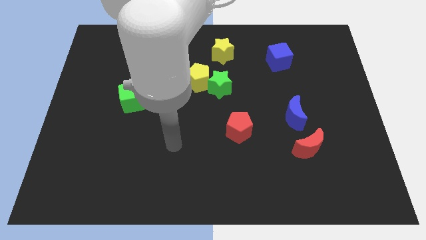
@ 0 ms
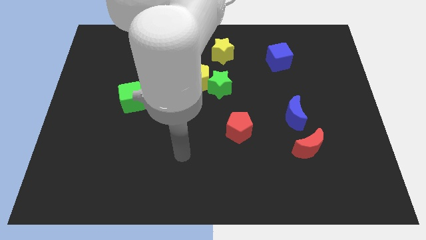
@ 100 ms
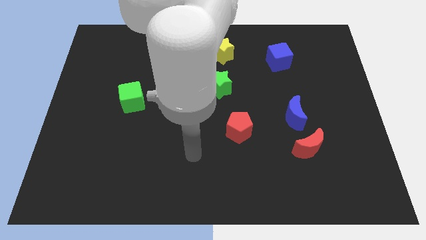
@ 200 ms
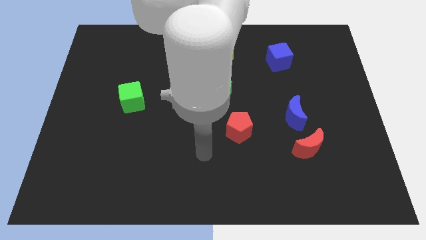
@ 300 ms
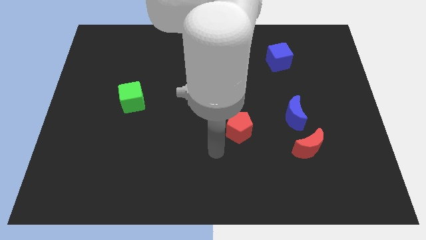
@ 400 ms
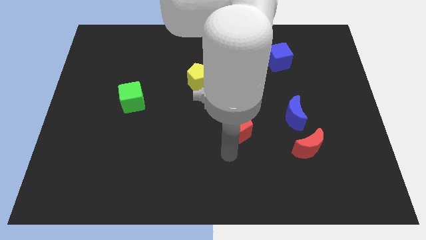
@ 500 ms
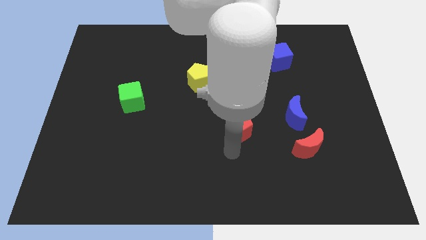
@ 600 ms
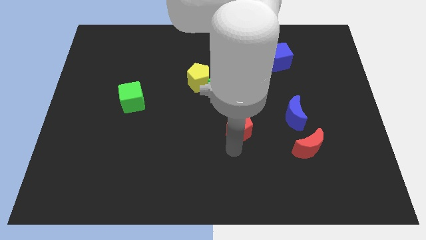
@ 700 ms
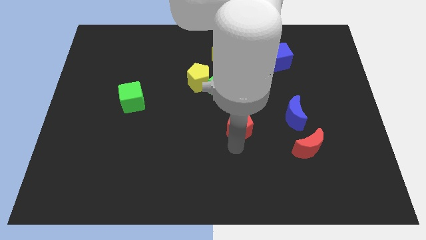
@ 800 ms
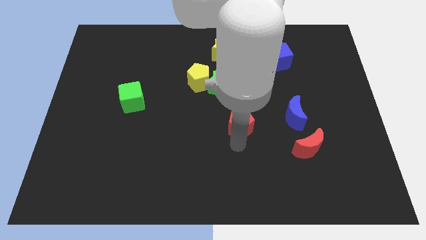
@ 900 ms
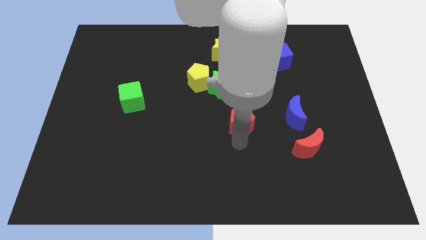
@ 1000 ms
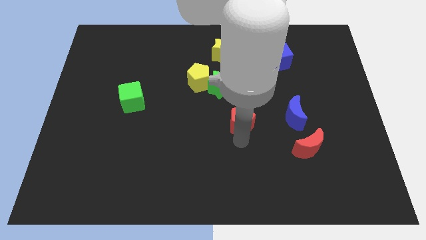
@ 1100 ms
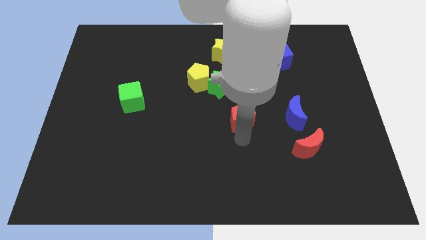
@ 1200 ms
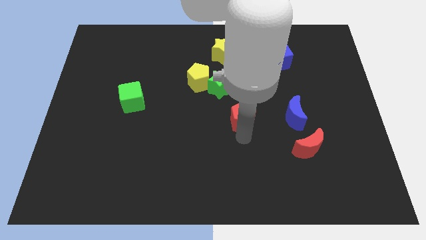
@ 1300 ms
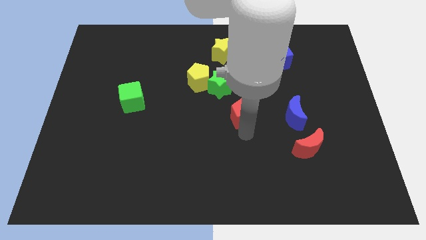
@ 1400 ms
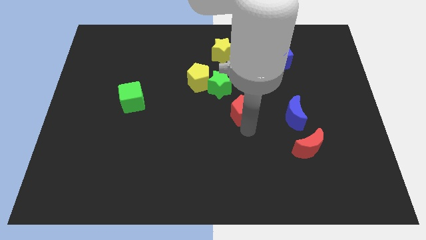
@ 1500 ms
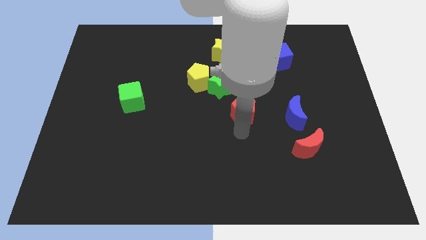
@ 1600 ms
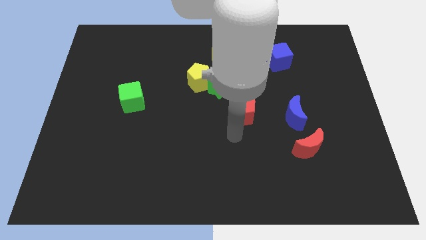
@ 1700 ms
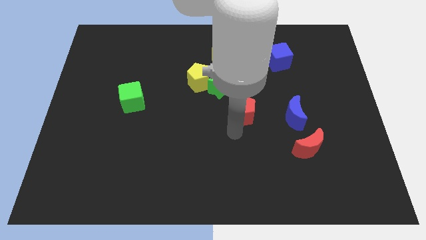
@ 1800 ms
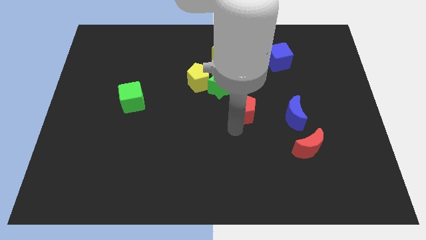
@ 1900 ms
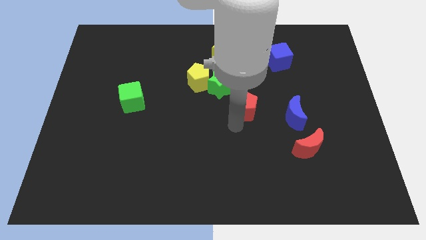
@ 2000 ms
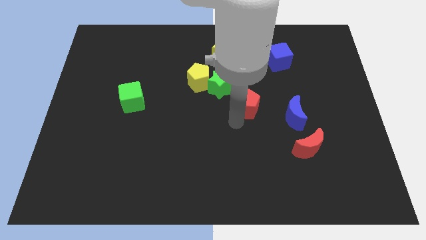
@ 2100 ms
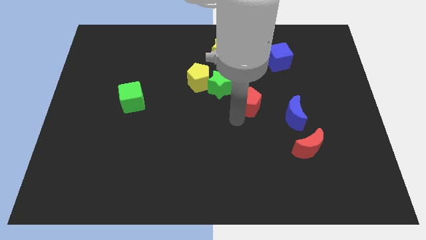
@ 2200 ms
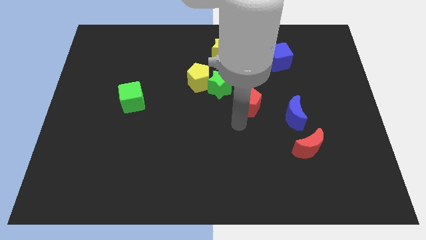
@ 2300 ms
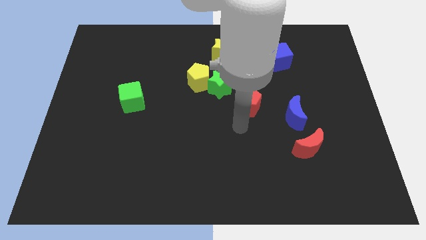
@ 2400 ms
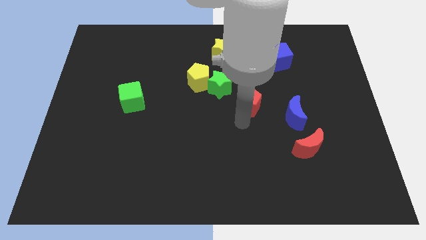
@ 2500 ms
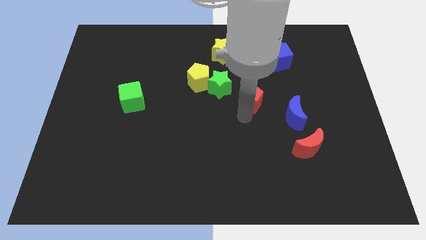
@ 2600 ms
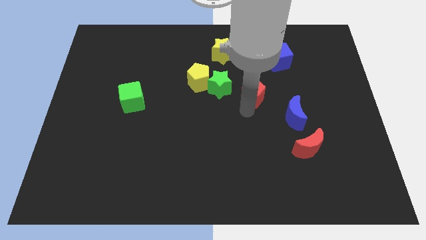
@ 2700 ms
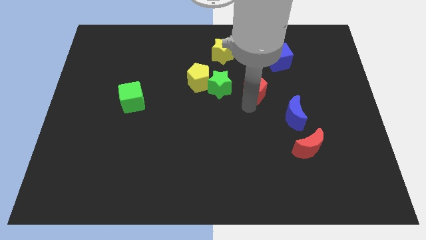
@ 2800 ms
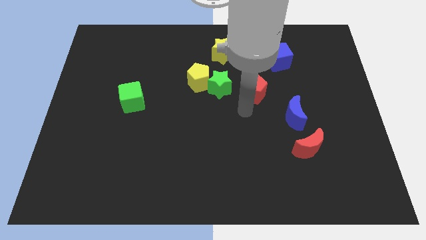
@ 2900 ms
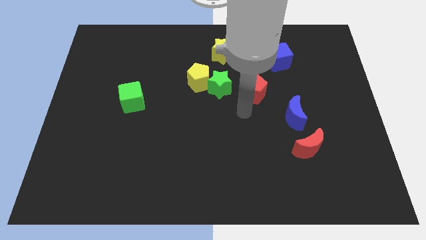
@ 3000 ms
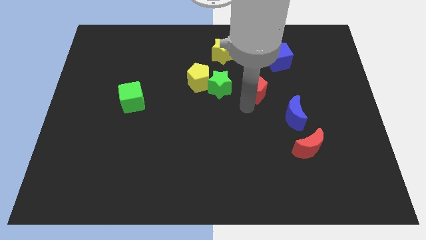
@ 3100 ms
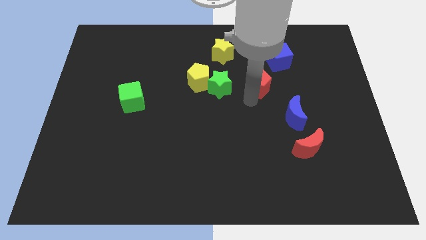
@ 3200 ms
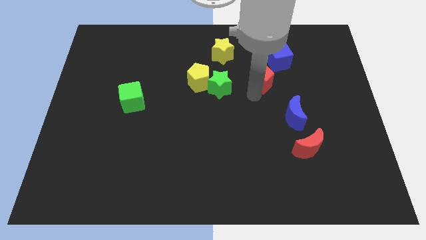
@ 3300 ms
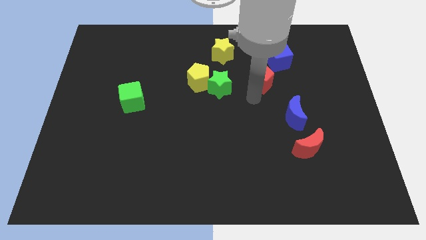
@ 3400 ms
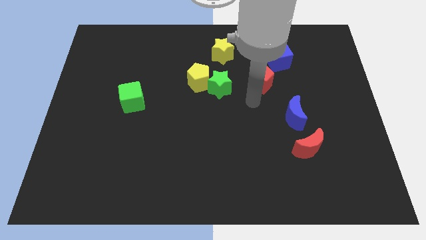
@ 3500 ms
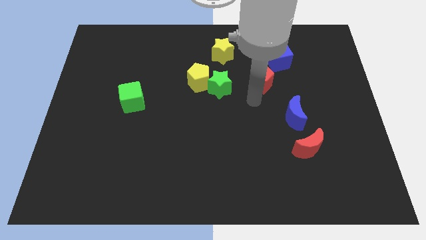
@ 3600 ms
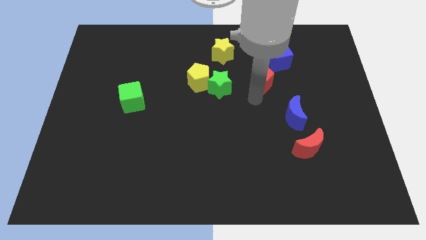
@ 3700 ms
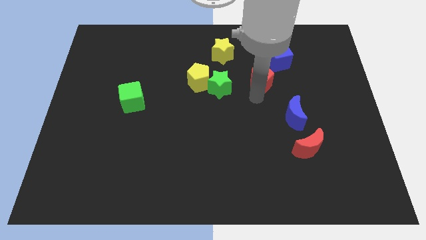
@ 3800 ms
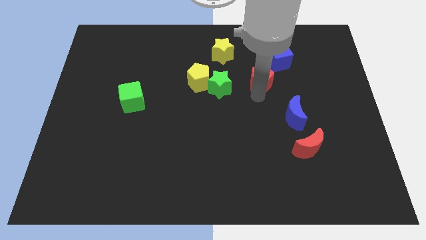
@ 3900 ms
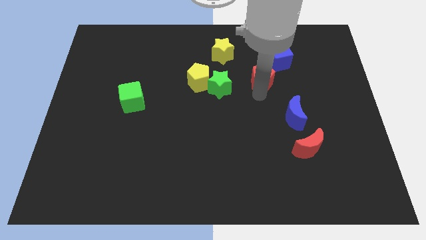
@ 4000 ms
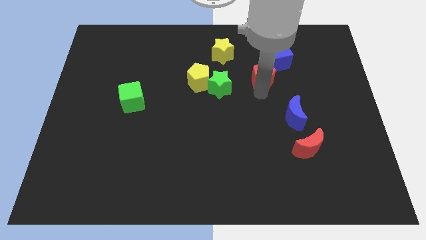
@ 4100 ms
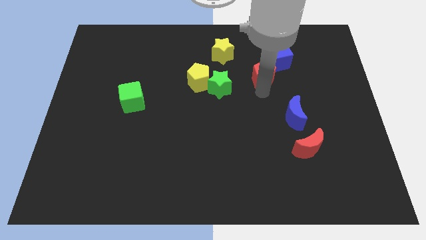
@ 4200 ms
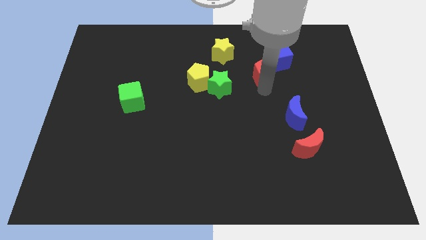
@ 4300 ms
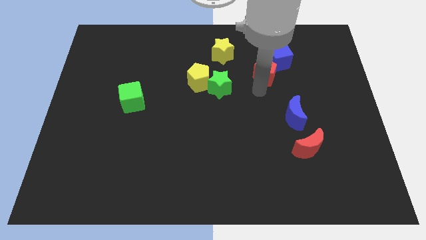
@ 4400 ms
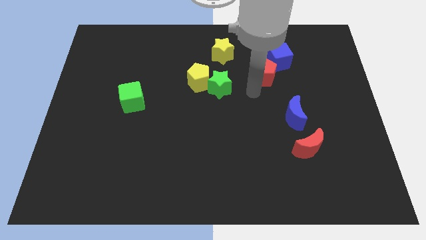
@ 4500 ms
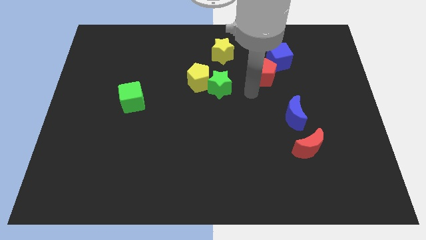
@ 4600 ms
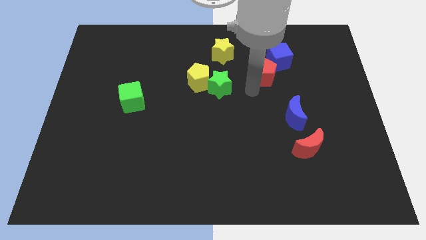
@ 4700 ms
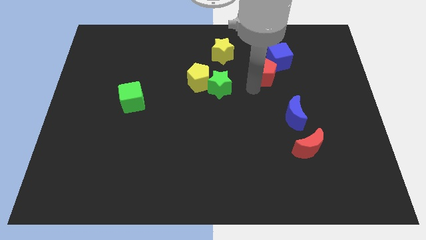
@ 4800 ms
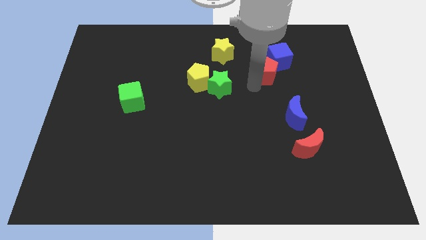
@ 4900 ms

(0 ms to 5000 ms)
slide the red pentagon next to the blue cube

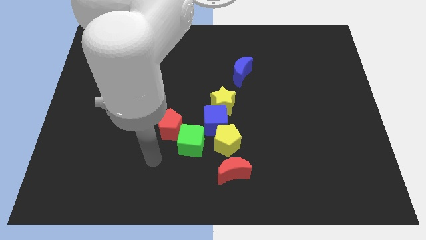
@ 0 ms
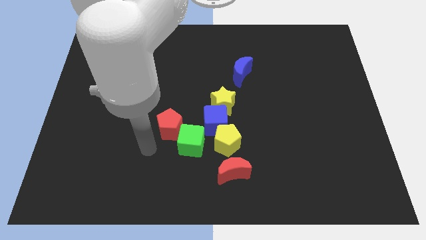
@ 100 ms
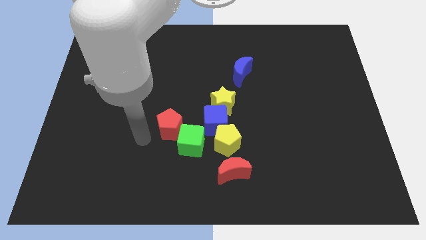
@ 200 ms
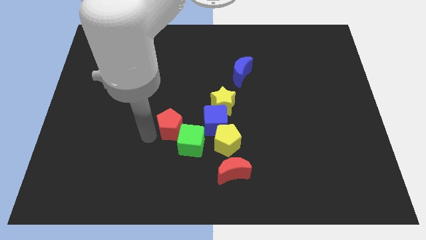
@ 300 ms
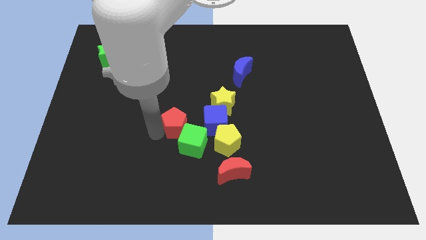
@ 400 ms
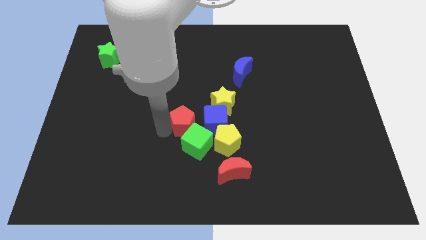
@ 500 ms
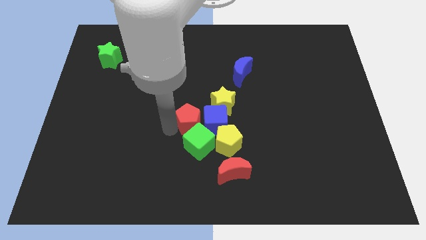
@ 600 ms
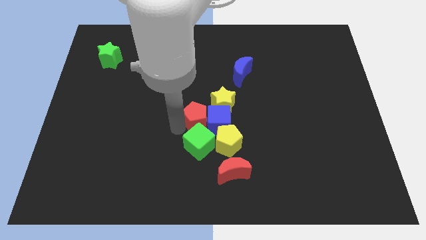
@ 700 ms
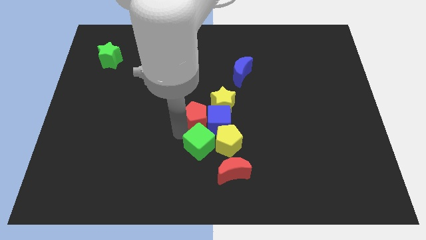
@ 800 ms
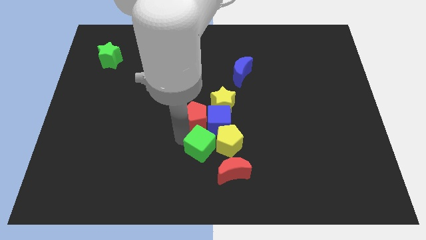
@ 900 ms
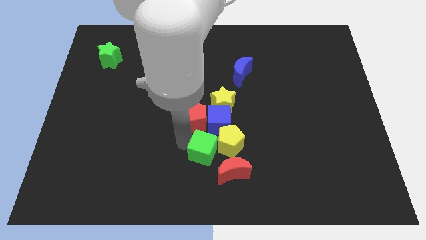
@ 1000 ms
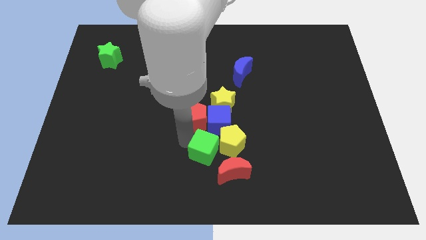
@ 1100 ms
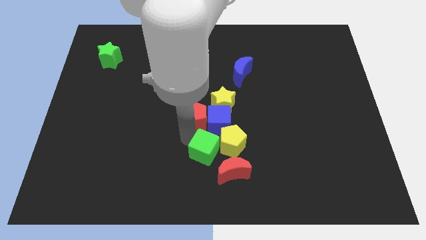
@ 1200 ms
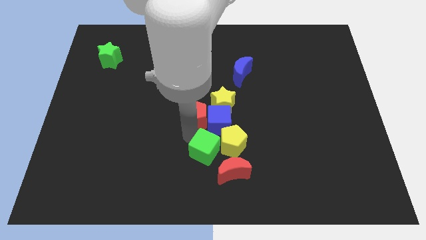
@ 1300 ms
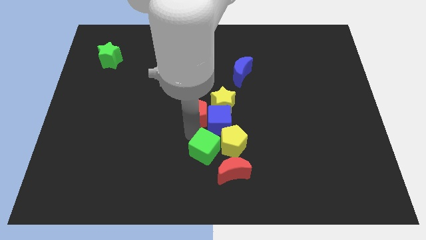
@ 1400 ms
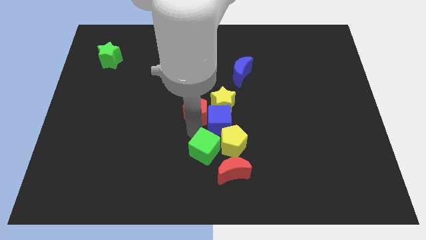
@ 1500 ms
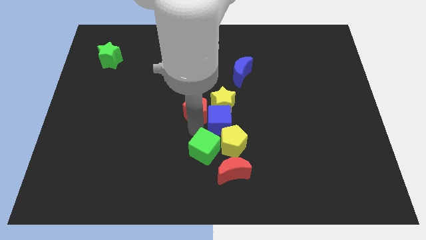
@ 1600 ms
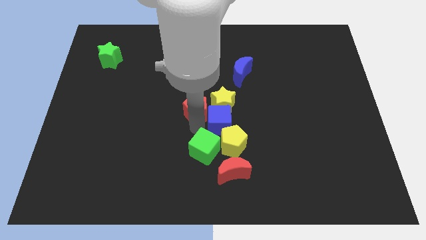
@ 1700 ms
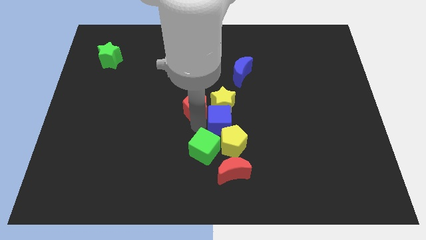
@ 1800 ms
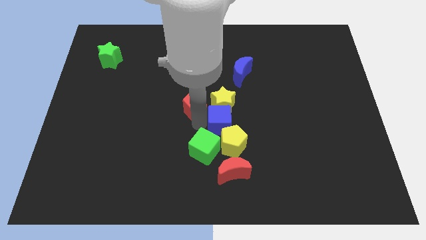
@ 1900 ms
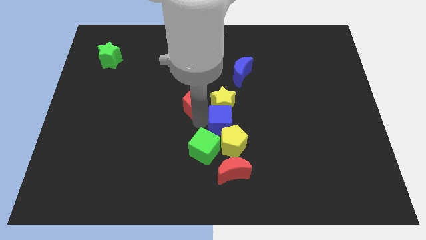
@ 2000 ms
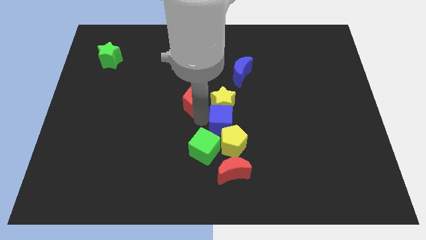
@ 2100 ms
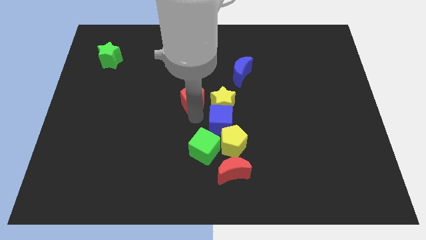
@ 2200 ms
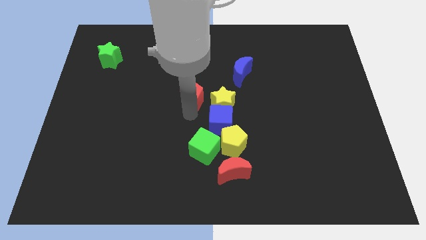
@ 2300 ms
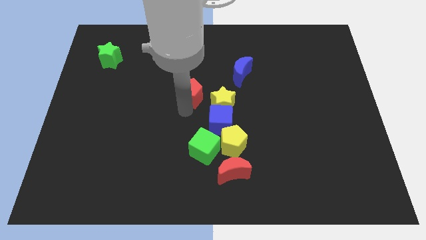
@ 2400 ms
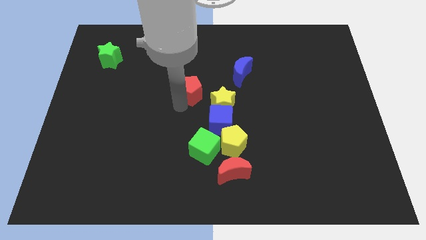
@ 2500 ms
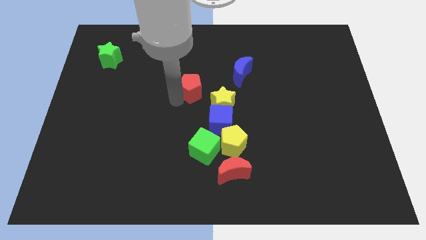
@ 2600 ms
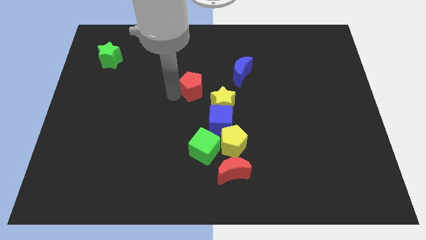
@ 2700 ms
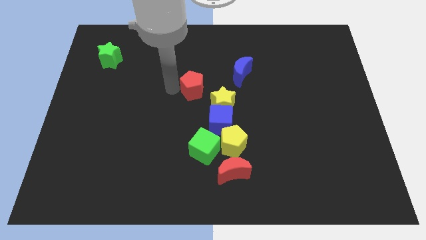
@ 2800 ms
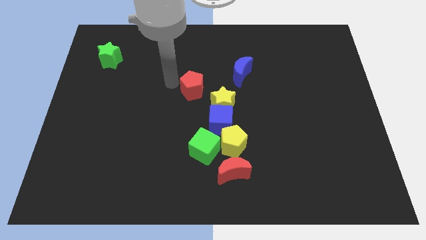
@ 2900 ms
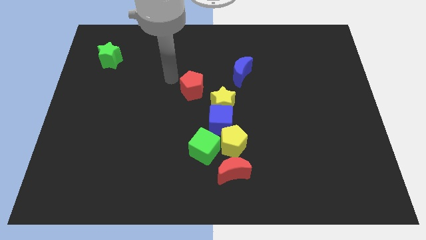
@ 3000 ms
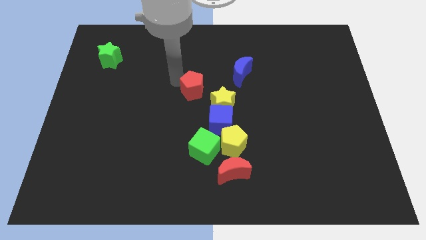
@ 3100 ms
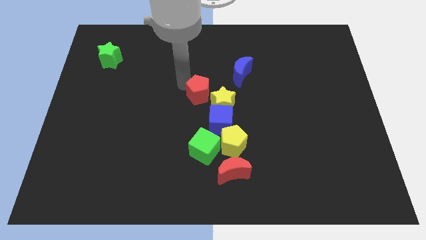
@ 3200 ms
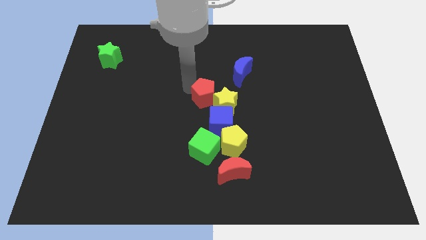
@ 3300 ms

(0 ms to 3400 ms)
move the red pentagon next to the yellow star
